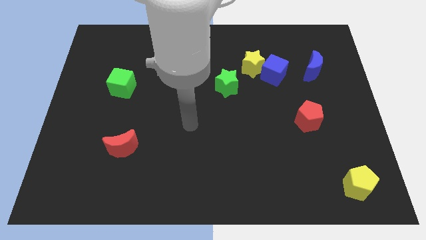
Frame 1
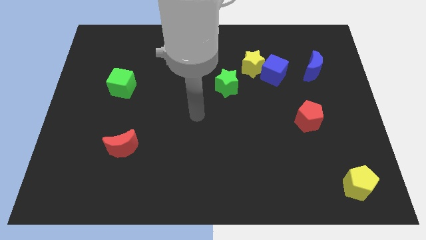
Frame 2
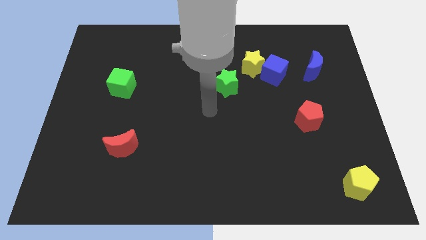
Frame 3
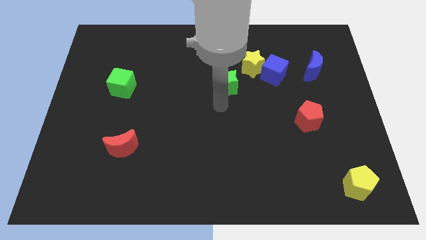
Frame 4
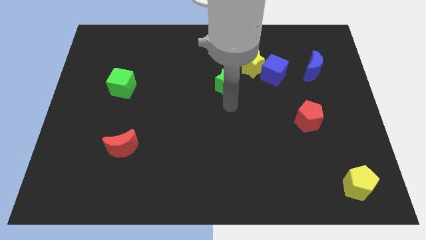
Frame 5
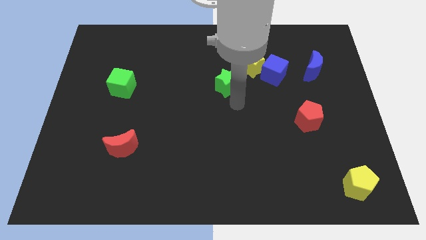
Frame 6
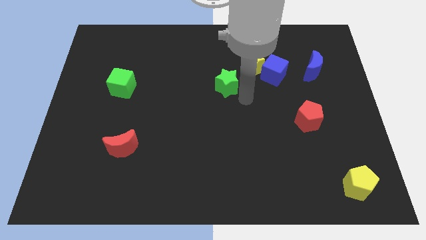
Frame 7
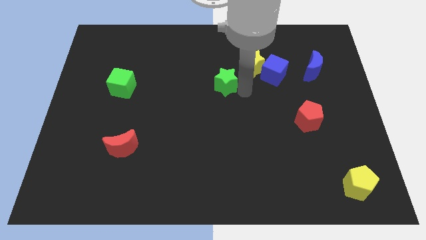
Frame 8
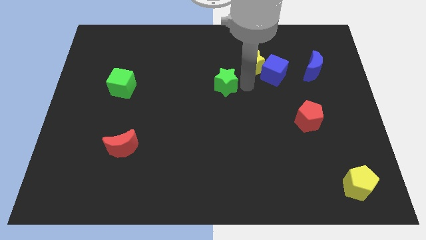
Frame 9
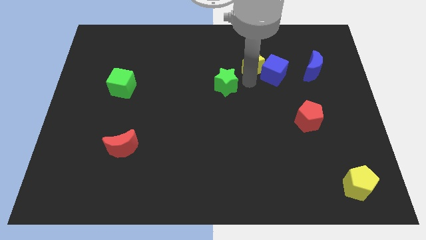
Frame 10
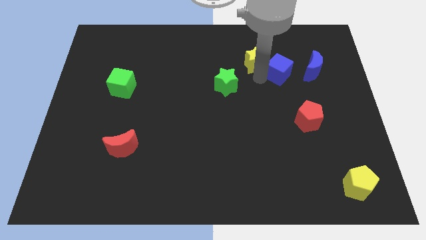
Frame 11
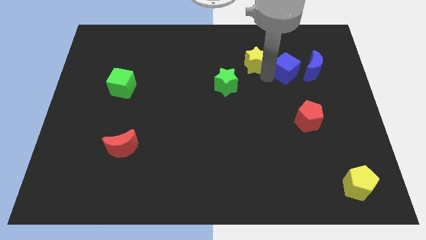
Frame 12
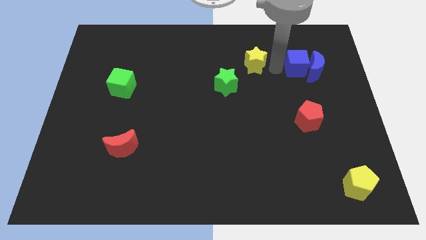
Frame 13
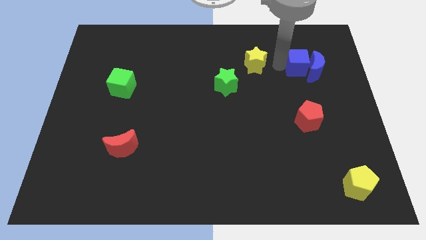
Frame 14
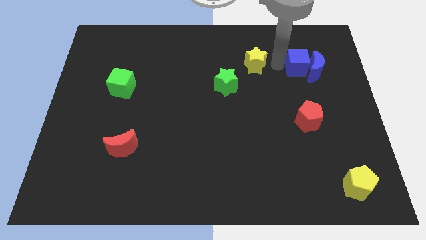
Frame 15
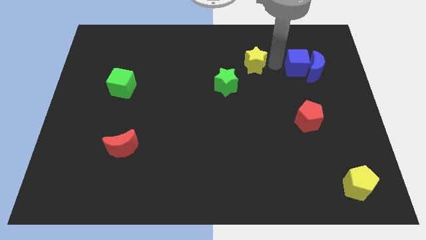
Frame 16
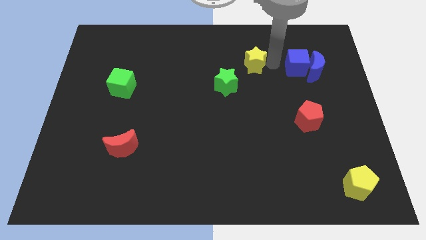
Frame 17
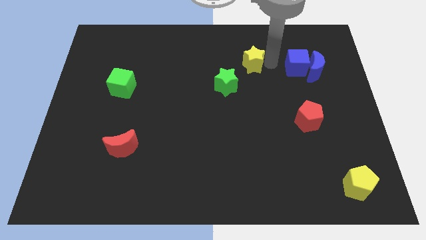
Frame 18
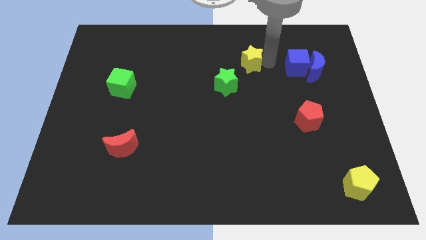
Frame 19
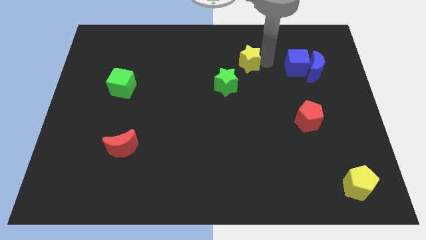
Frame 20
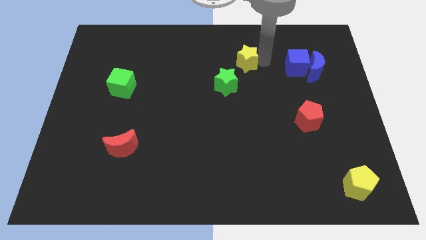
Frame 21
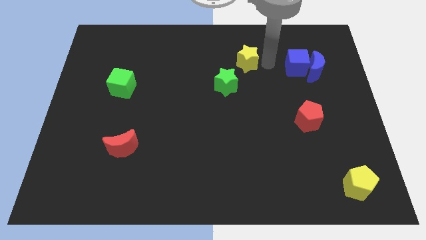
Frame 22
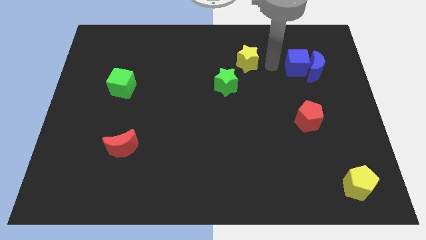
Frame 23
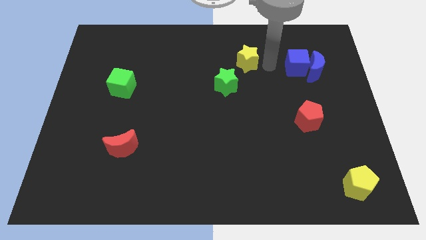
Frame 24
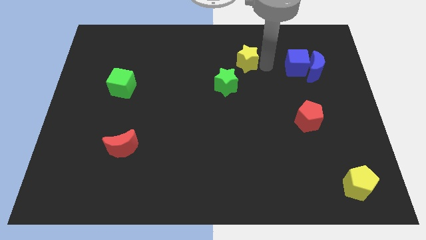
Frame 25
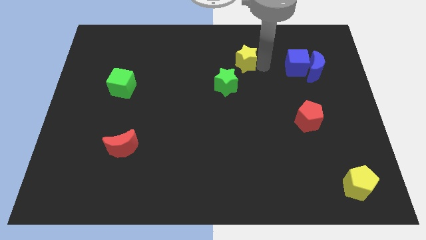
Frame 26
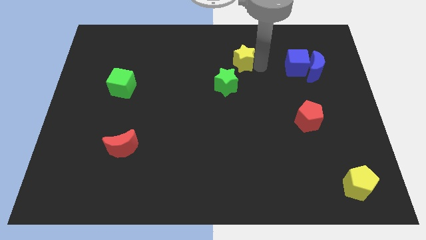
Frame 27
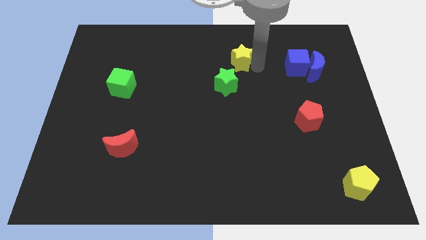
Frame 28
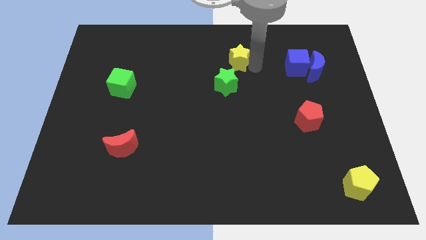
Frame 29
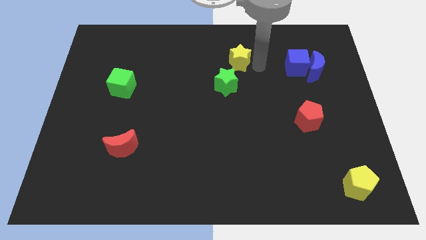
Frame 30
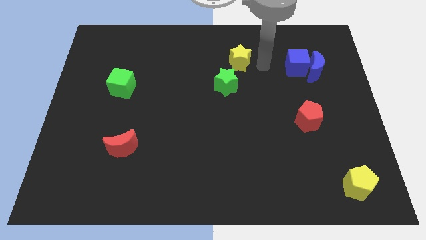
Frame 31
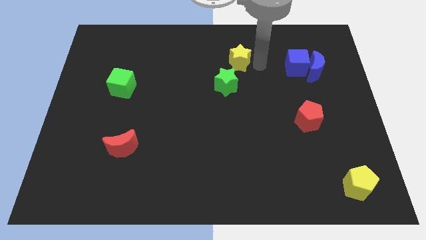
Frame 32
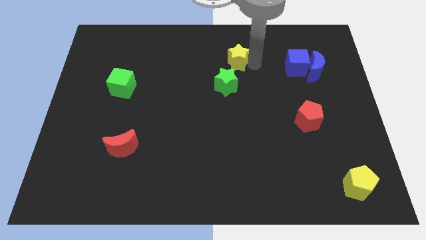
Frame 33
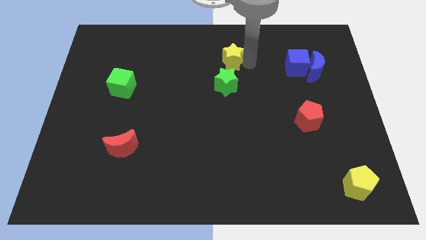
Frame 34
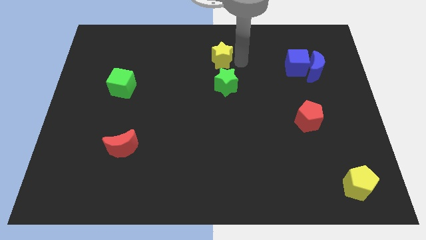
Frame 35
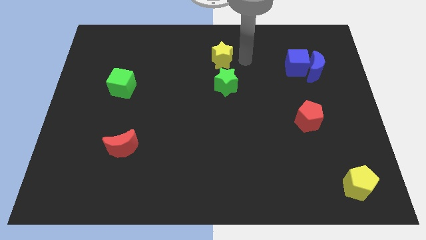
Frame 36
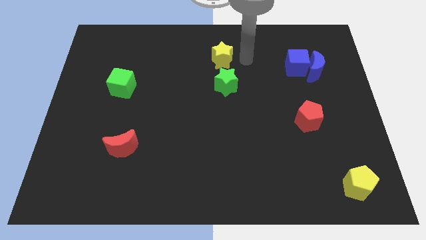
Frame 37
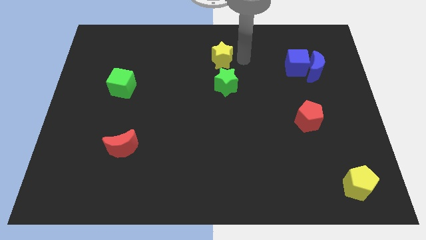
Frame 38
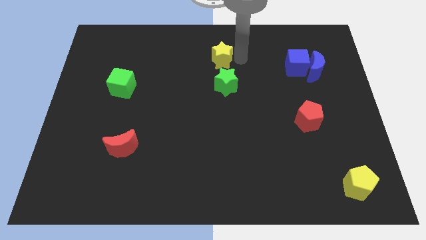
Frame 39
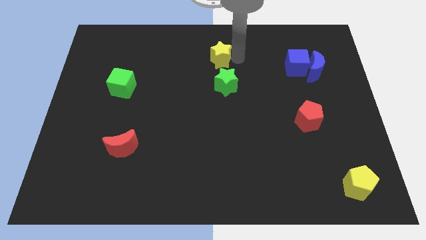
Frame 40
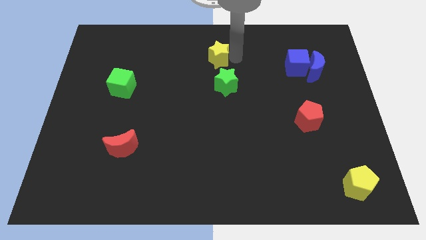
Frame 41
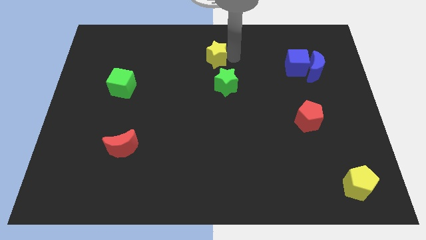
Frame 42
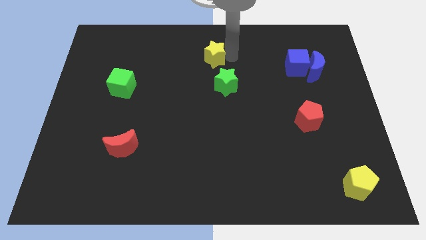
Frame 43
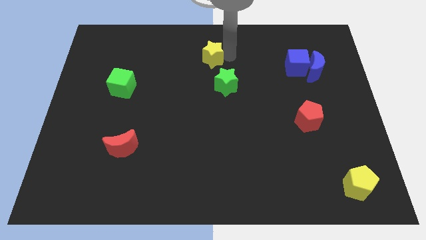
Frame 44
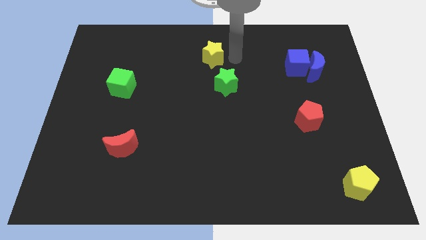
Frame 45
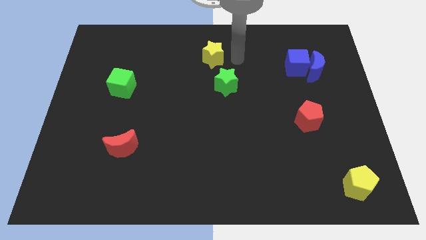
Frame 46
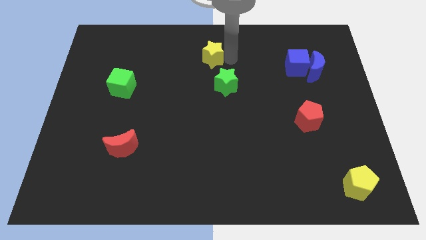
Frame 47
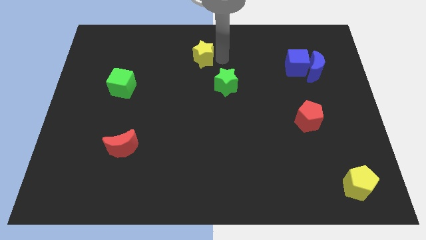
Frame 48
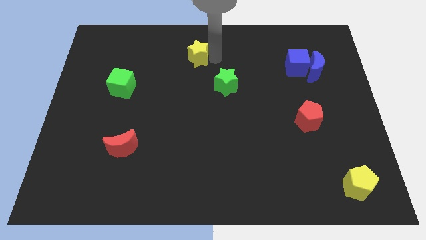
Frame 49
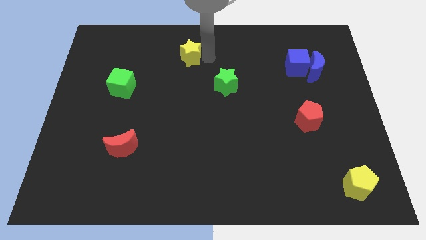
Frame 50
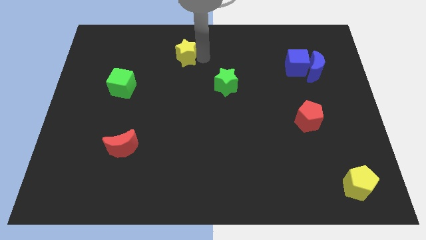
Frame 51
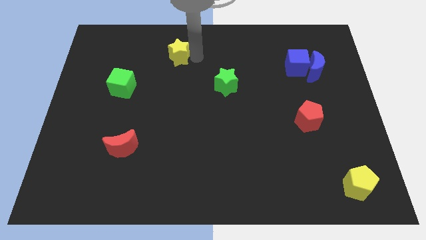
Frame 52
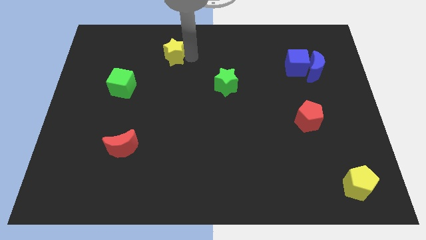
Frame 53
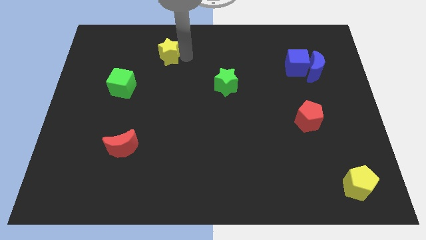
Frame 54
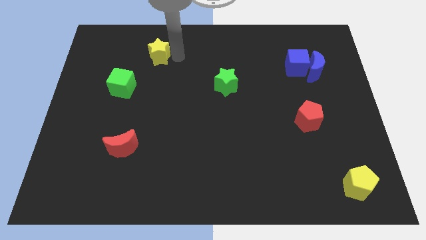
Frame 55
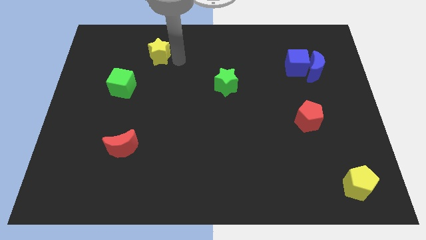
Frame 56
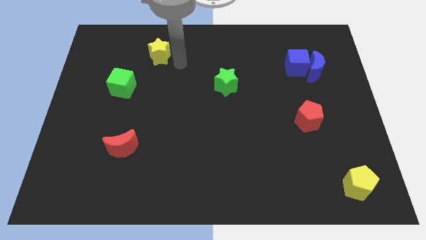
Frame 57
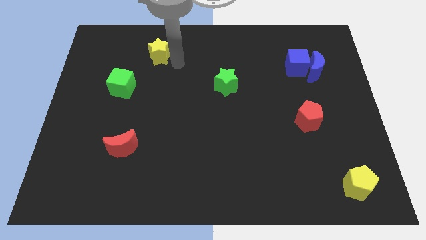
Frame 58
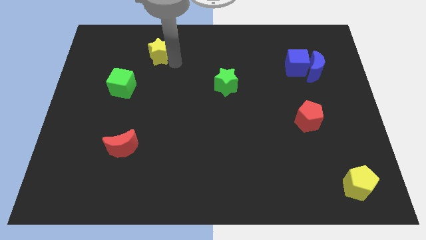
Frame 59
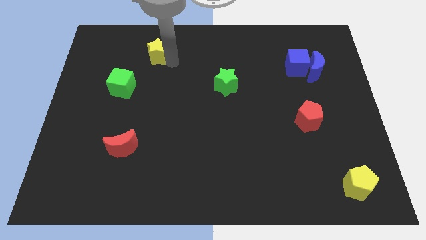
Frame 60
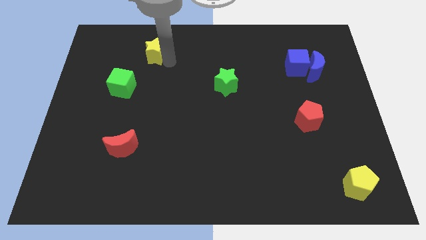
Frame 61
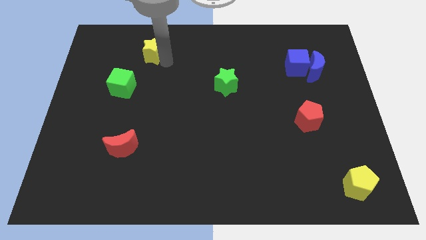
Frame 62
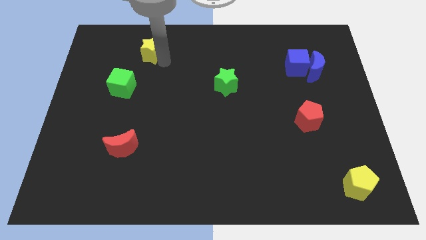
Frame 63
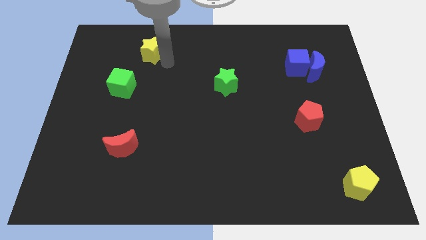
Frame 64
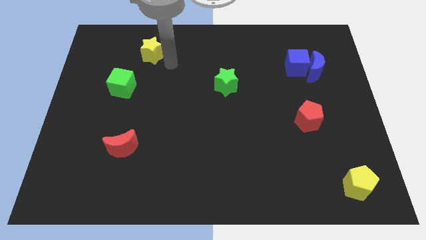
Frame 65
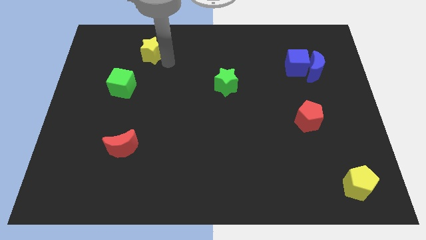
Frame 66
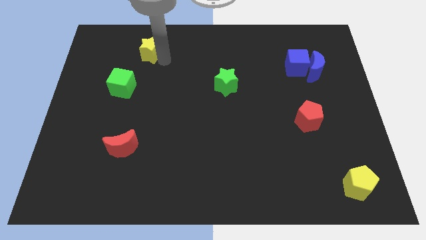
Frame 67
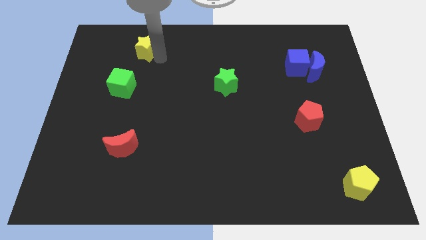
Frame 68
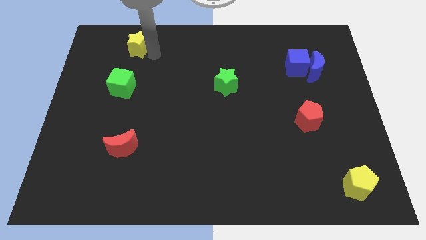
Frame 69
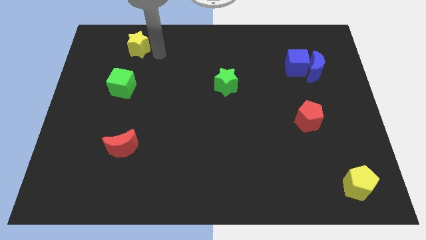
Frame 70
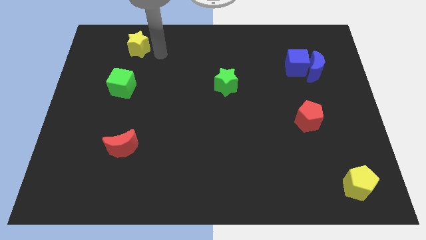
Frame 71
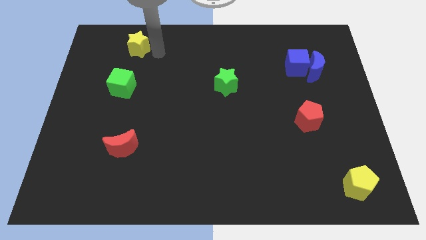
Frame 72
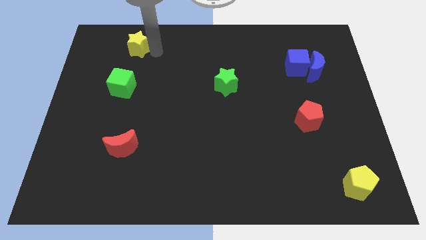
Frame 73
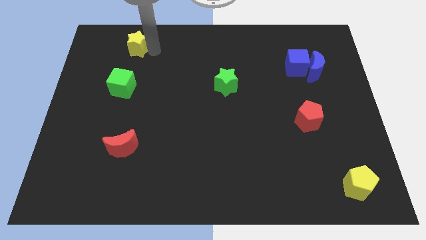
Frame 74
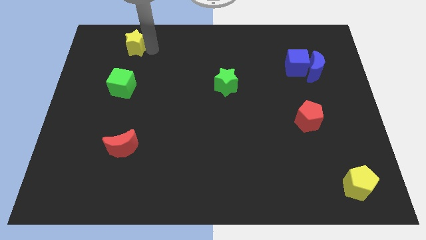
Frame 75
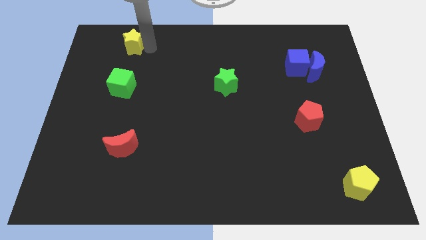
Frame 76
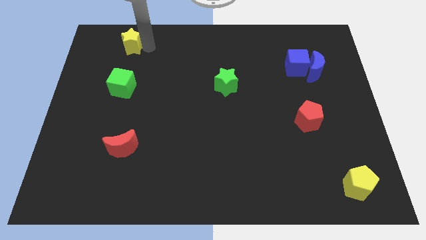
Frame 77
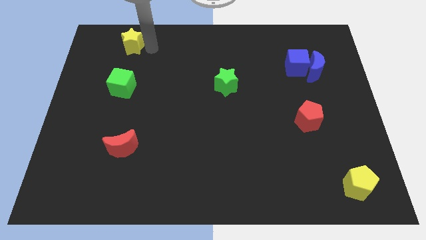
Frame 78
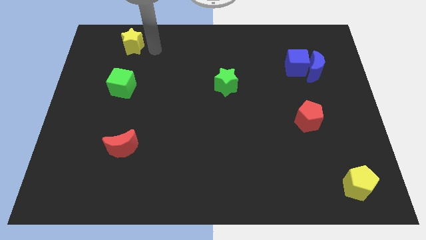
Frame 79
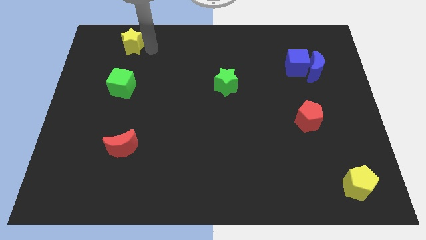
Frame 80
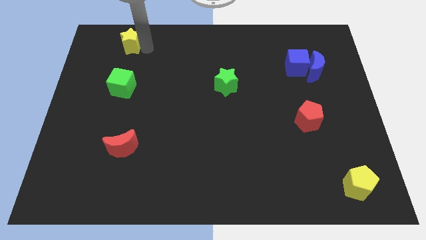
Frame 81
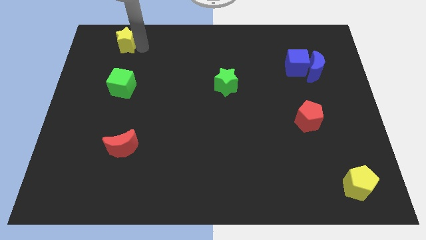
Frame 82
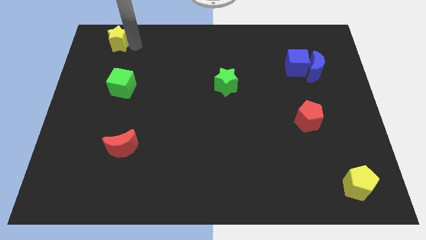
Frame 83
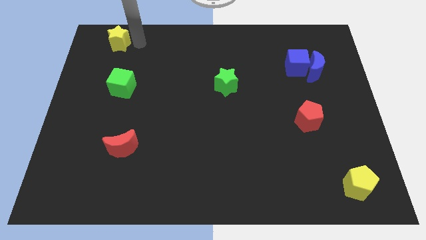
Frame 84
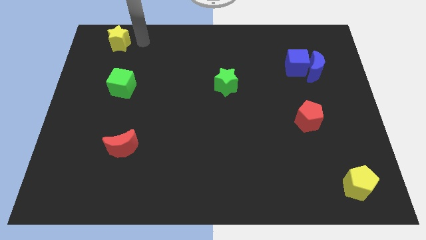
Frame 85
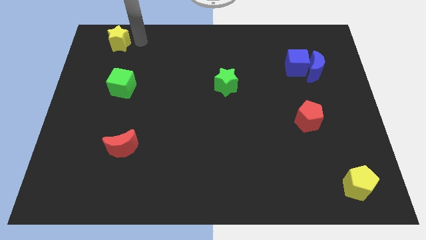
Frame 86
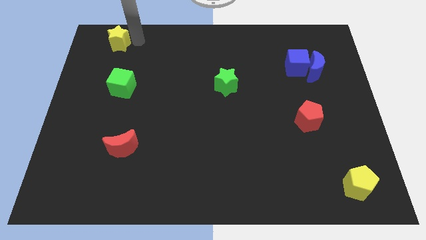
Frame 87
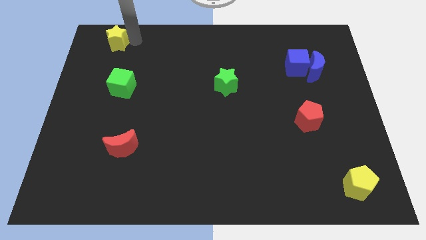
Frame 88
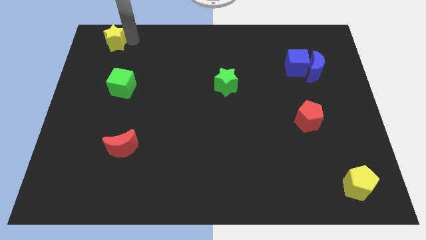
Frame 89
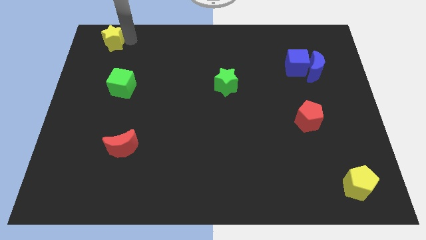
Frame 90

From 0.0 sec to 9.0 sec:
push the yellow star to the top left corner
